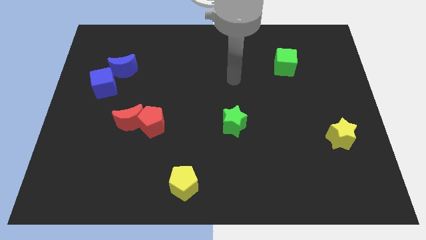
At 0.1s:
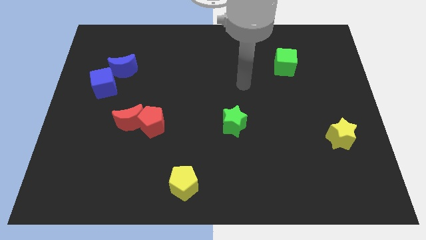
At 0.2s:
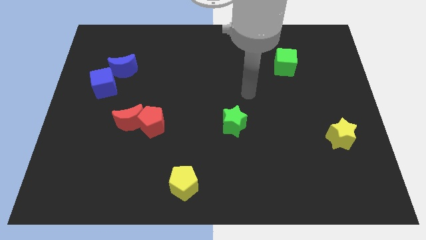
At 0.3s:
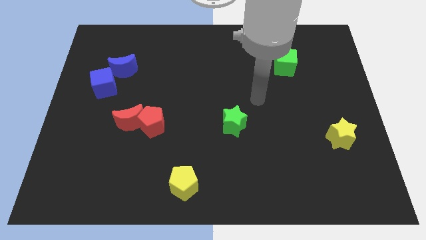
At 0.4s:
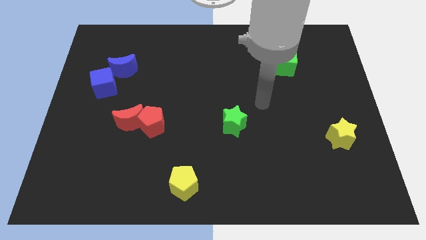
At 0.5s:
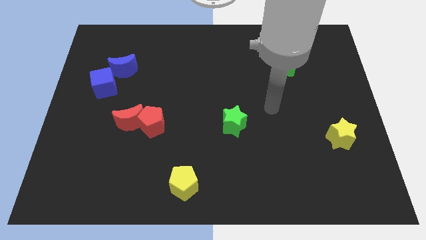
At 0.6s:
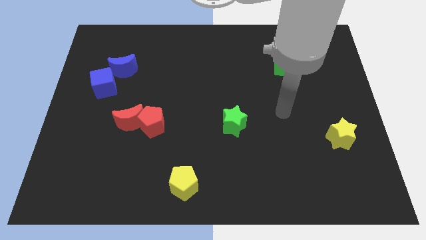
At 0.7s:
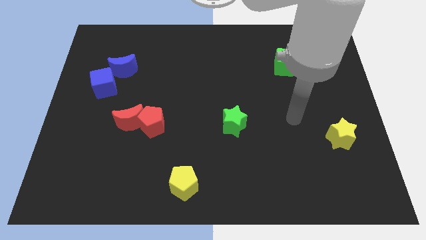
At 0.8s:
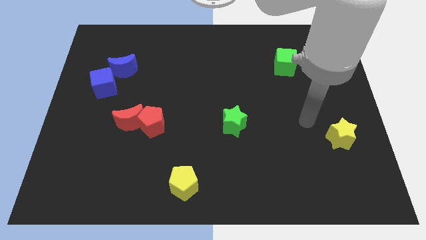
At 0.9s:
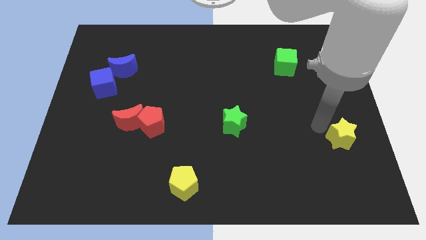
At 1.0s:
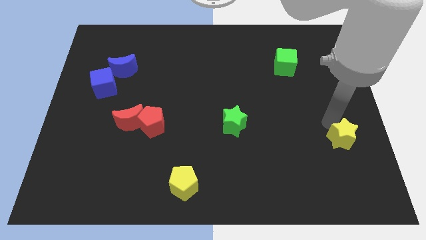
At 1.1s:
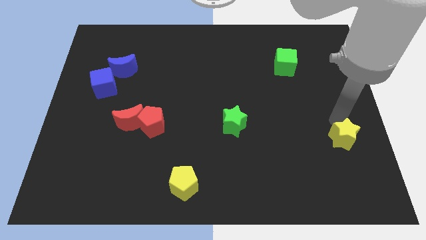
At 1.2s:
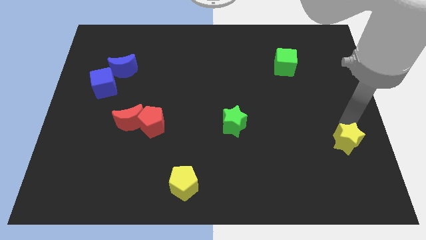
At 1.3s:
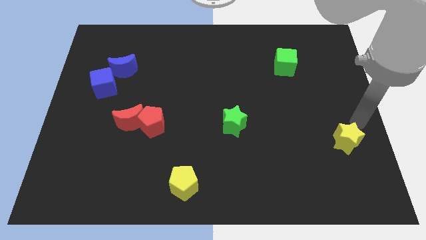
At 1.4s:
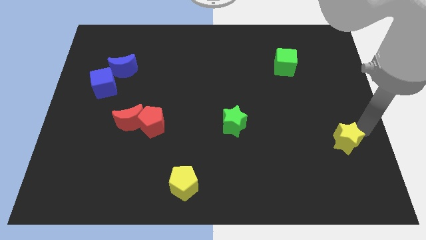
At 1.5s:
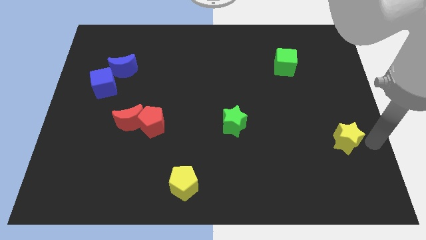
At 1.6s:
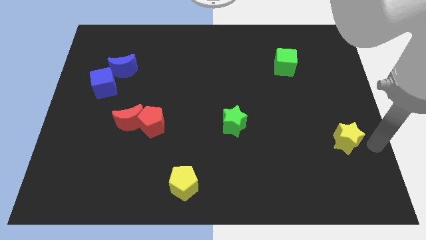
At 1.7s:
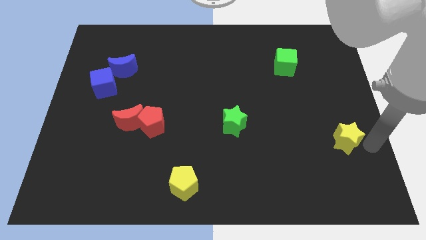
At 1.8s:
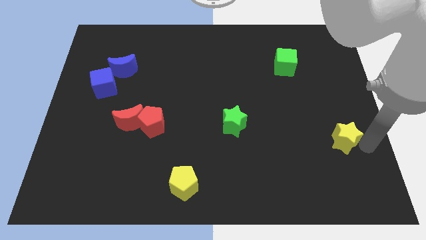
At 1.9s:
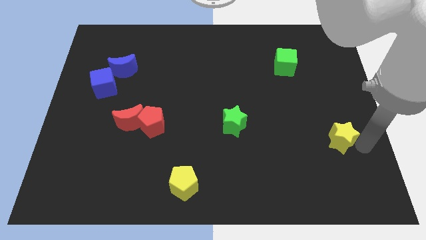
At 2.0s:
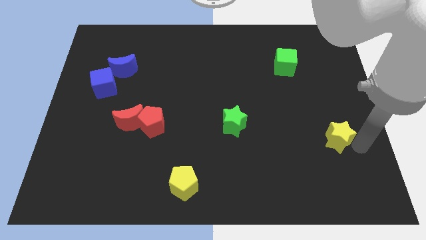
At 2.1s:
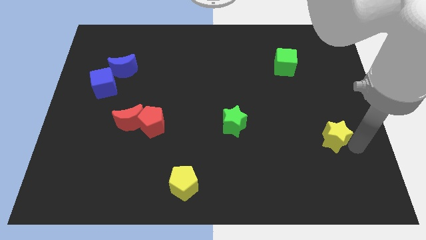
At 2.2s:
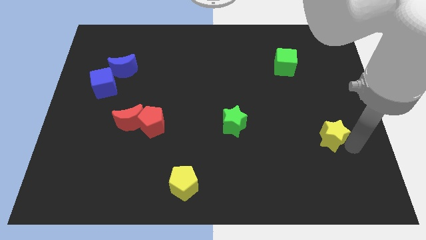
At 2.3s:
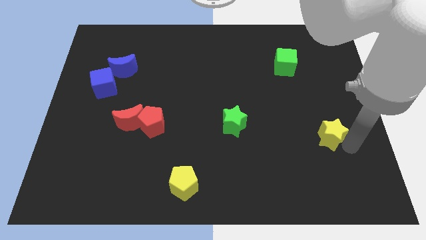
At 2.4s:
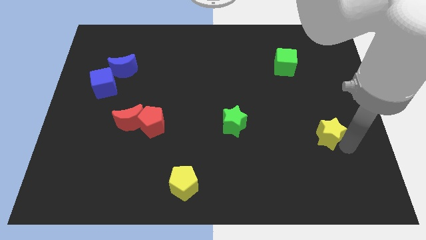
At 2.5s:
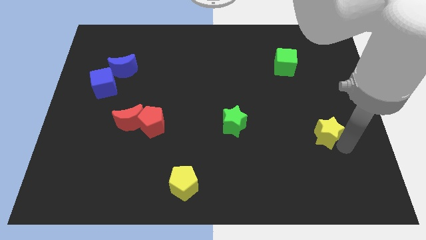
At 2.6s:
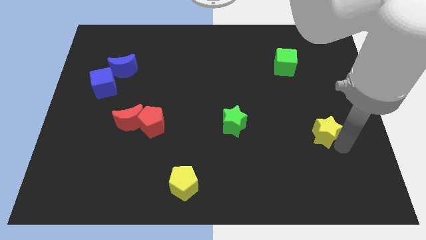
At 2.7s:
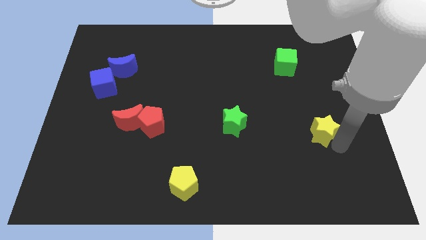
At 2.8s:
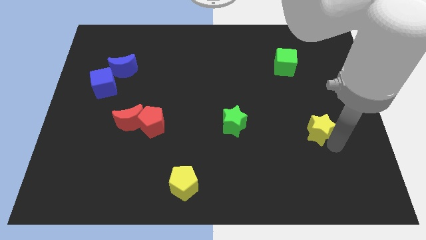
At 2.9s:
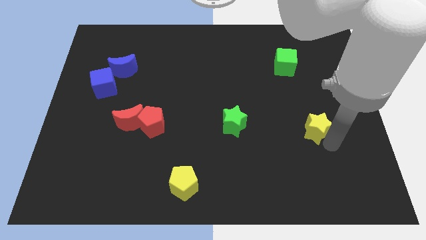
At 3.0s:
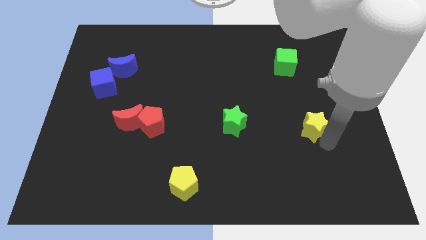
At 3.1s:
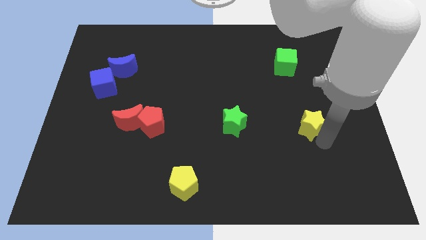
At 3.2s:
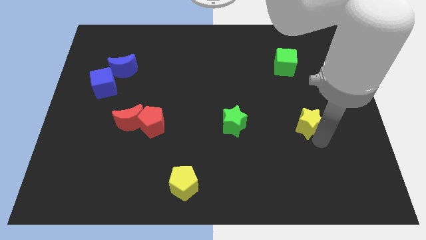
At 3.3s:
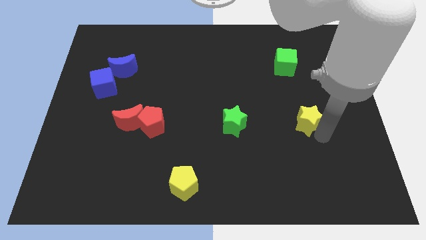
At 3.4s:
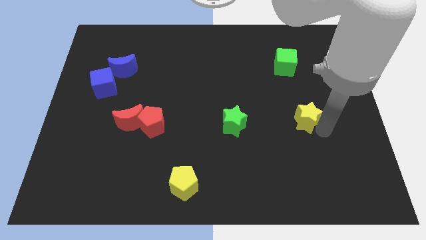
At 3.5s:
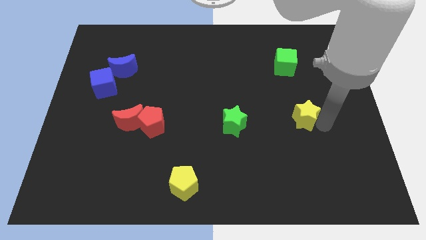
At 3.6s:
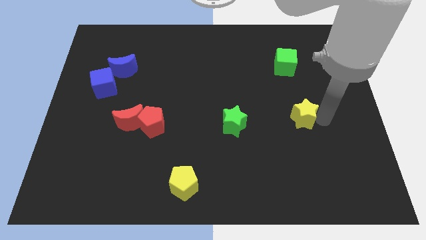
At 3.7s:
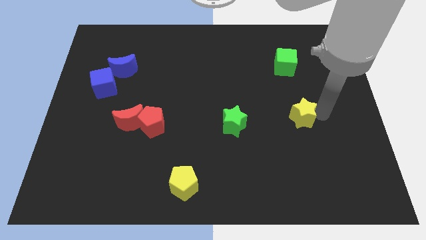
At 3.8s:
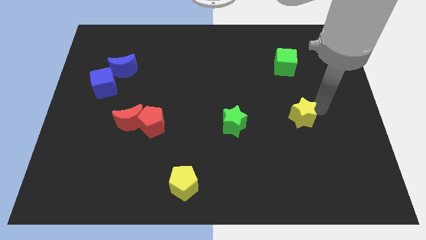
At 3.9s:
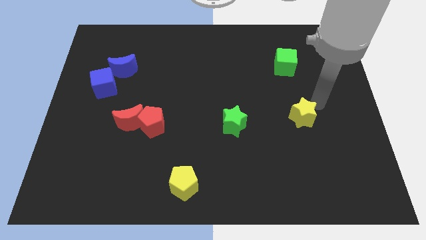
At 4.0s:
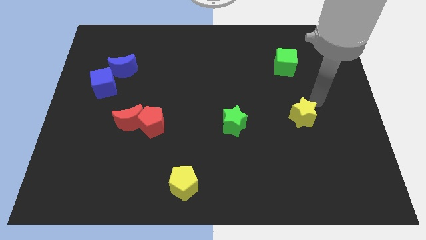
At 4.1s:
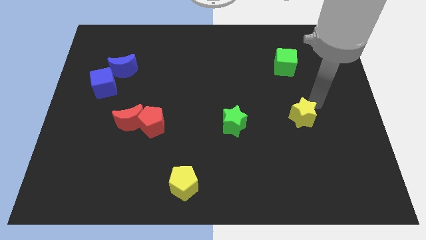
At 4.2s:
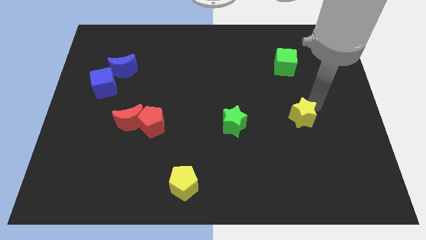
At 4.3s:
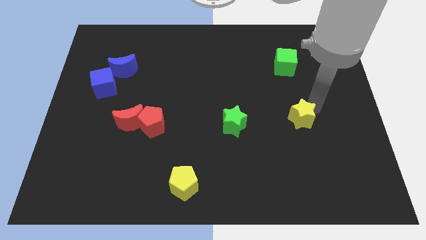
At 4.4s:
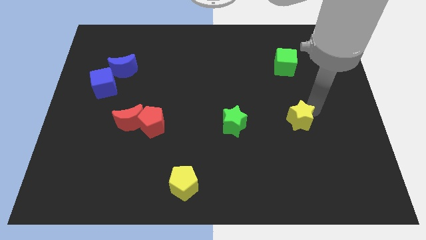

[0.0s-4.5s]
slide the yellow star a bit to the left

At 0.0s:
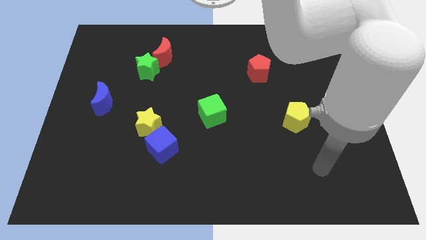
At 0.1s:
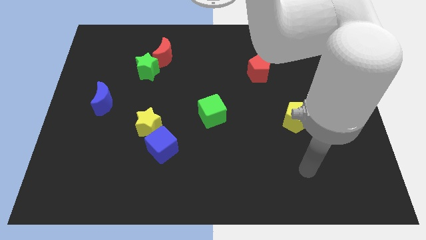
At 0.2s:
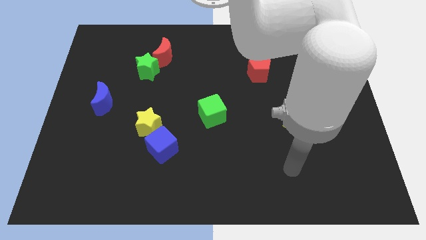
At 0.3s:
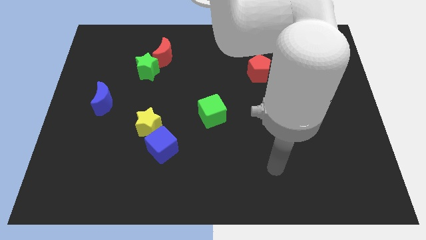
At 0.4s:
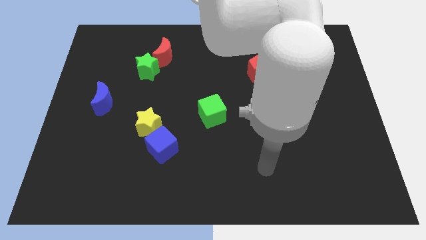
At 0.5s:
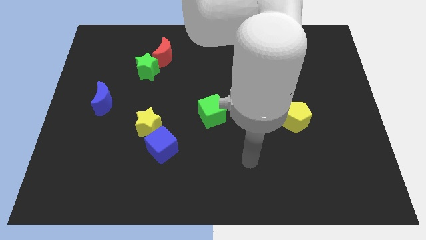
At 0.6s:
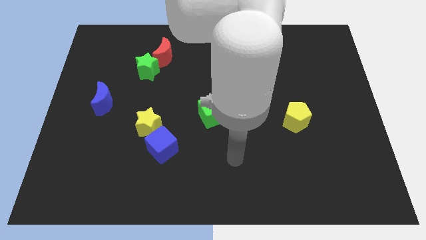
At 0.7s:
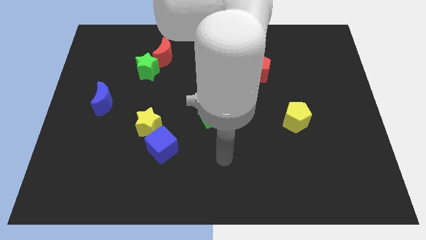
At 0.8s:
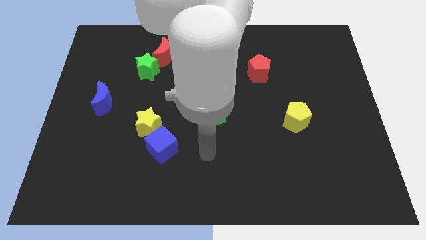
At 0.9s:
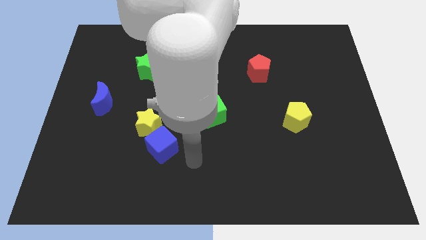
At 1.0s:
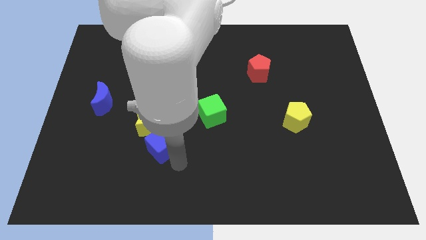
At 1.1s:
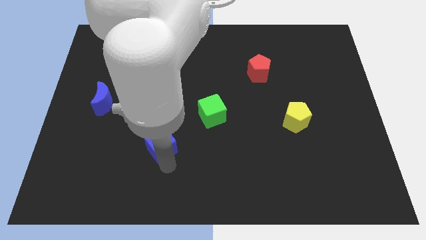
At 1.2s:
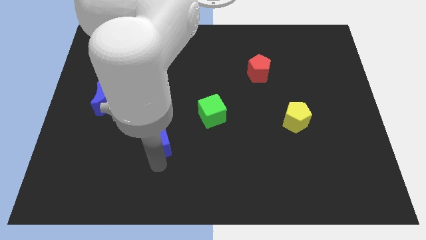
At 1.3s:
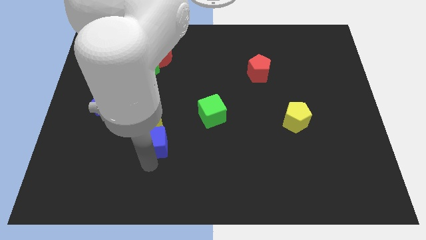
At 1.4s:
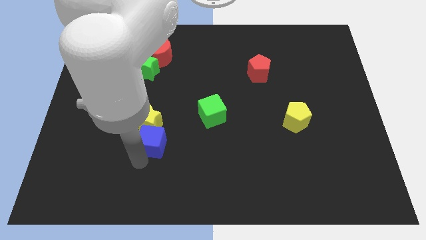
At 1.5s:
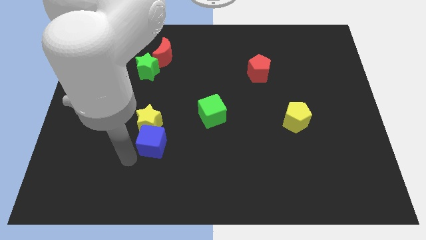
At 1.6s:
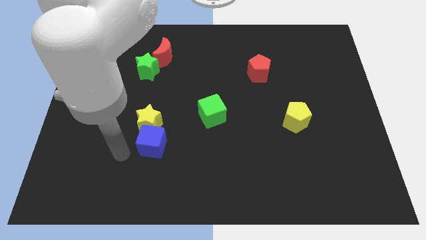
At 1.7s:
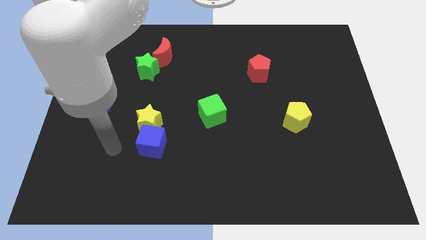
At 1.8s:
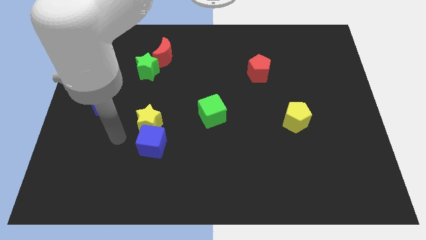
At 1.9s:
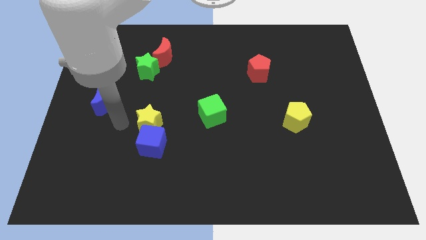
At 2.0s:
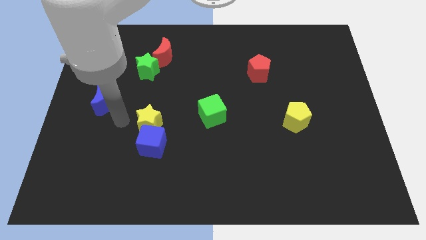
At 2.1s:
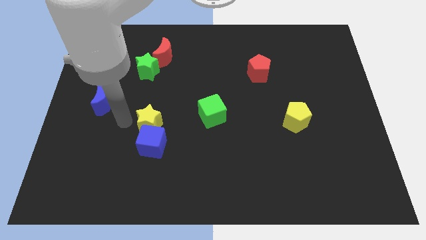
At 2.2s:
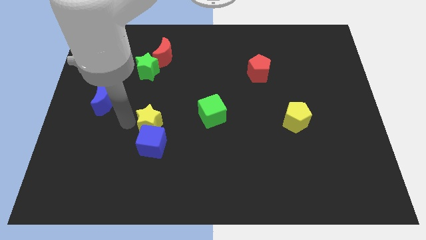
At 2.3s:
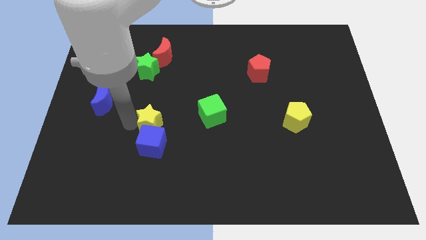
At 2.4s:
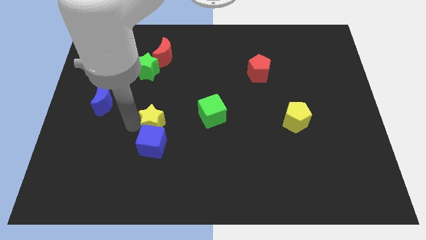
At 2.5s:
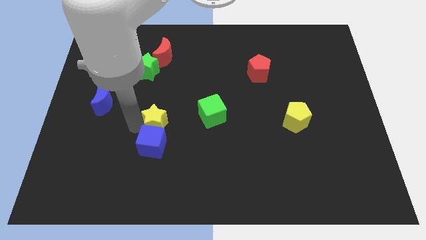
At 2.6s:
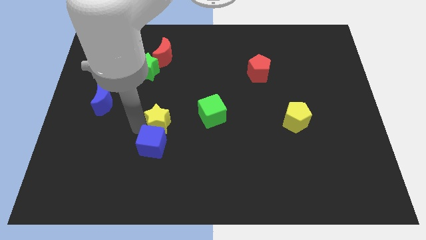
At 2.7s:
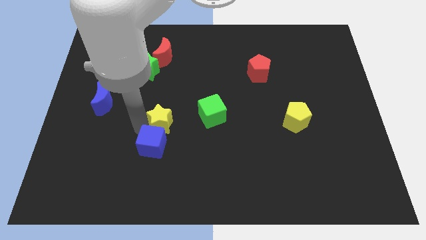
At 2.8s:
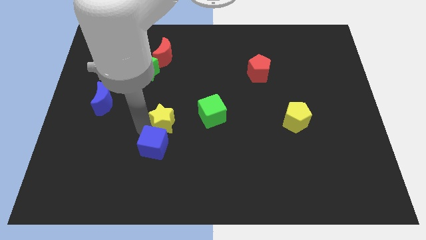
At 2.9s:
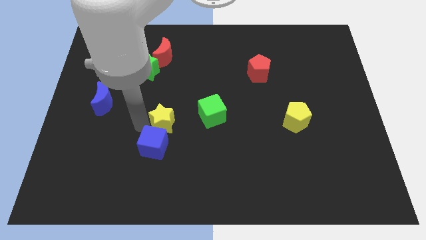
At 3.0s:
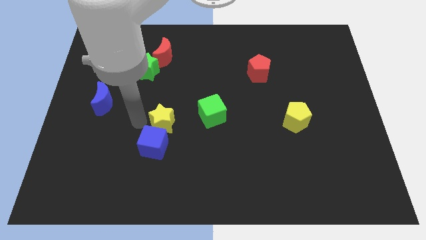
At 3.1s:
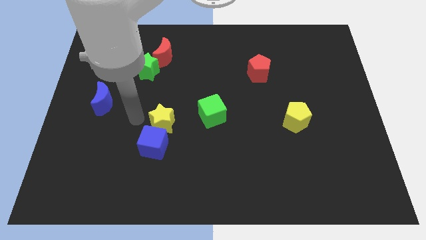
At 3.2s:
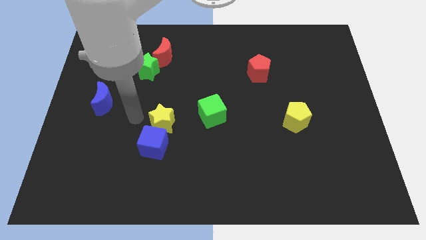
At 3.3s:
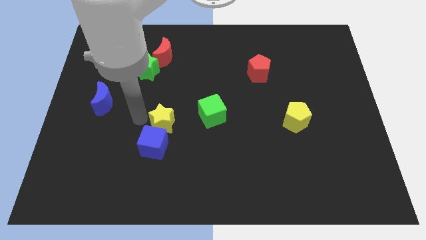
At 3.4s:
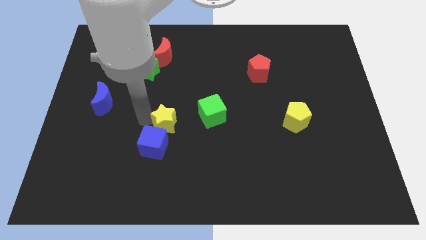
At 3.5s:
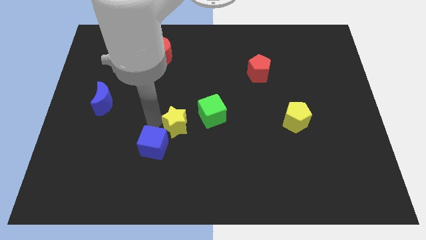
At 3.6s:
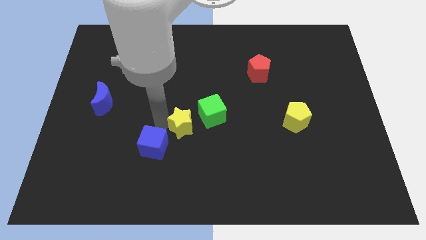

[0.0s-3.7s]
move the yellow star somewhat to the right
